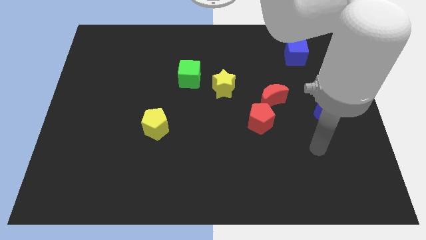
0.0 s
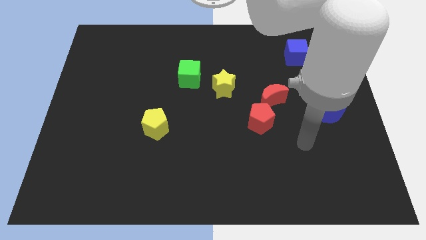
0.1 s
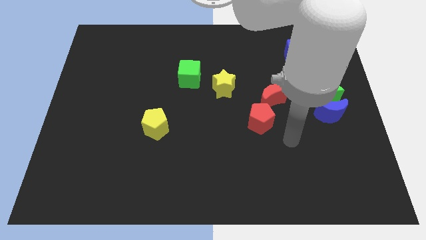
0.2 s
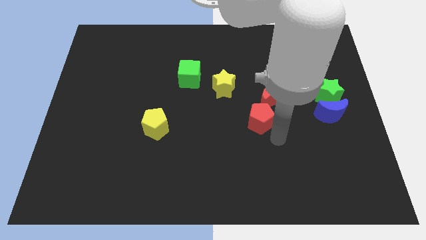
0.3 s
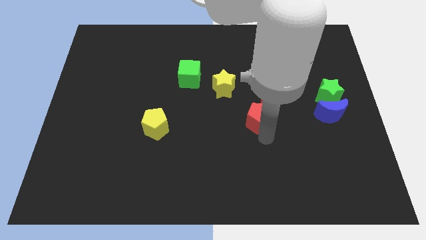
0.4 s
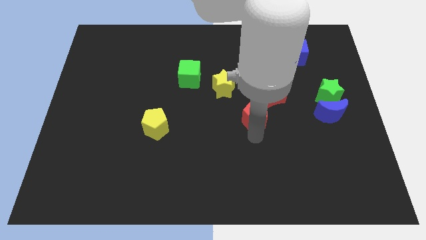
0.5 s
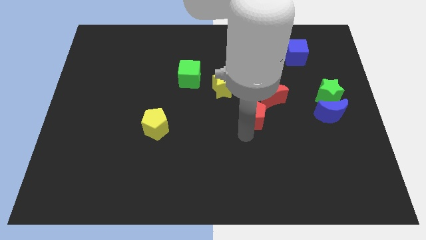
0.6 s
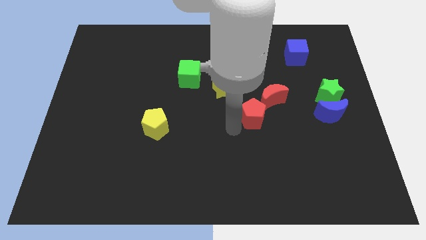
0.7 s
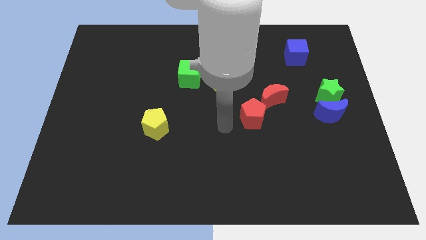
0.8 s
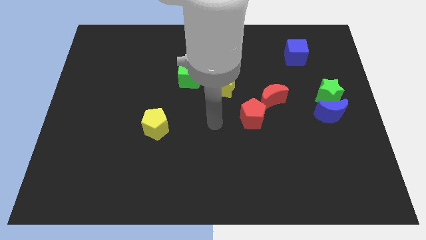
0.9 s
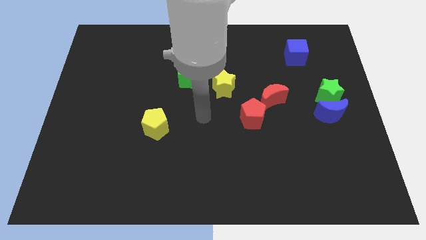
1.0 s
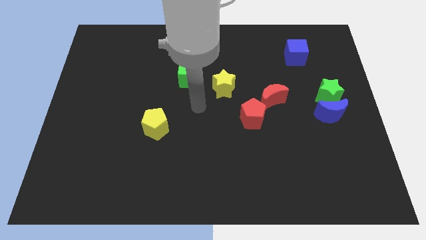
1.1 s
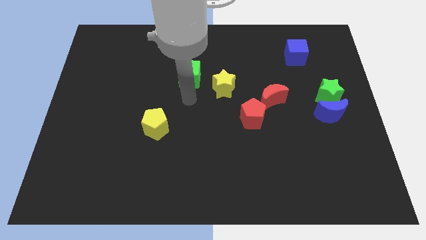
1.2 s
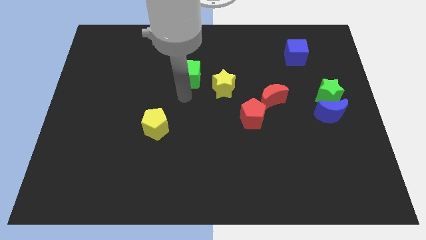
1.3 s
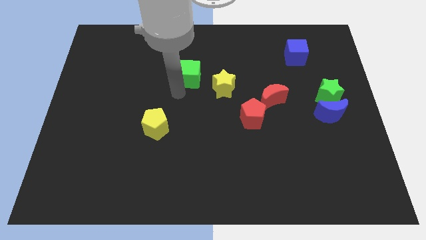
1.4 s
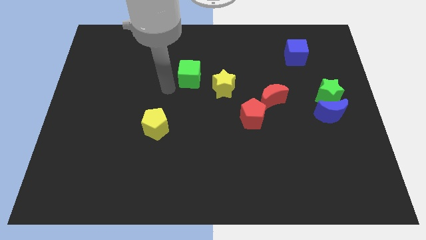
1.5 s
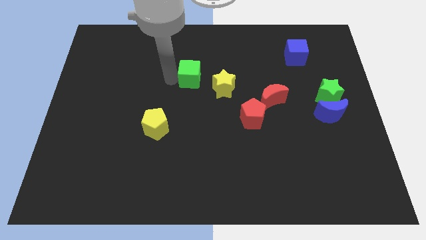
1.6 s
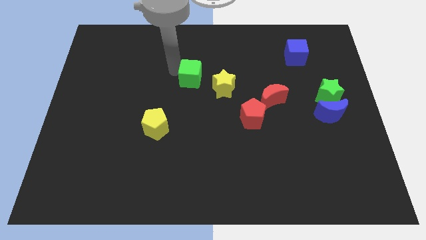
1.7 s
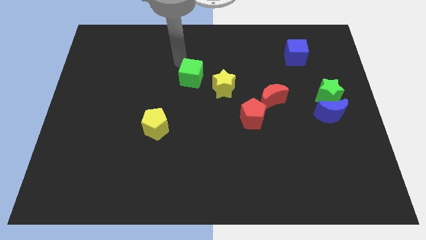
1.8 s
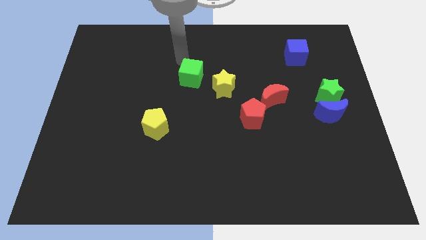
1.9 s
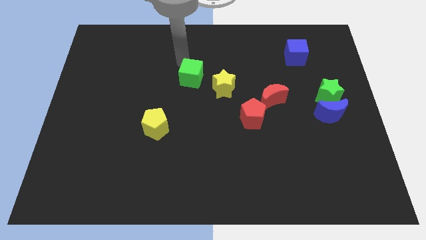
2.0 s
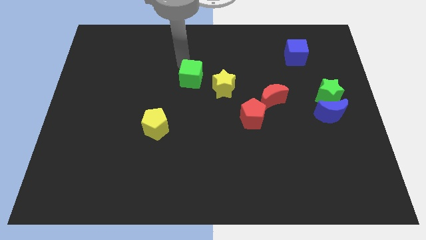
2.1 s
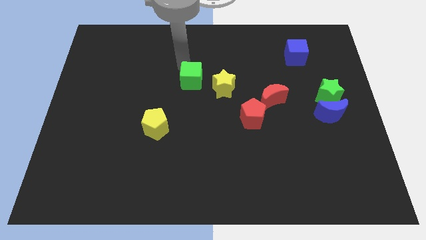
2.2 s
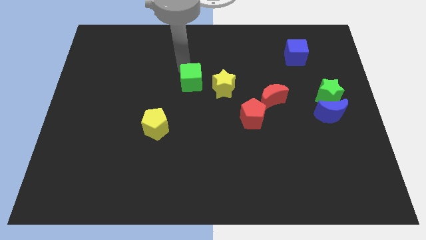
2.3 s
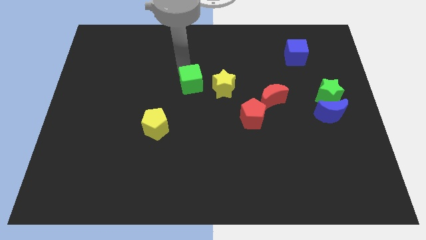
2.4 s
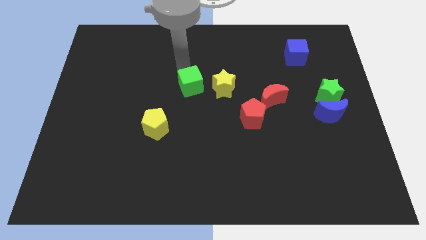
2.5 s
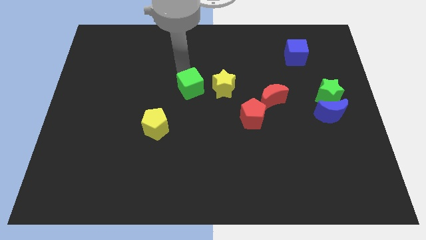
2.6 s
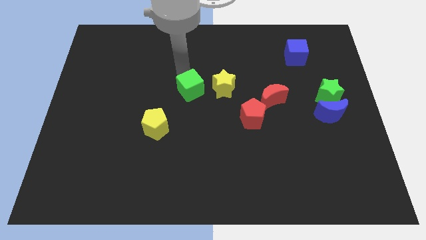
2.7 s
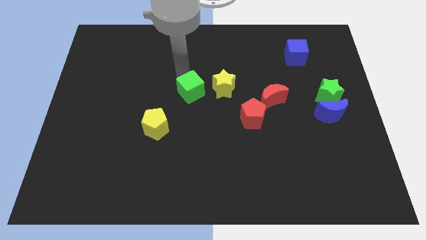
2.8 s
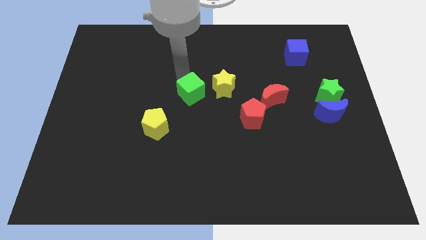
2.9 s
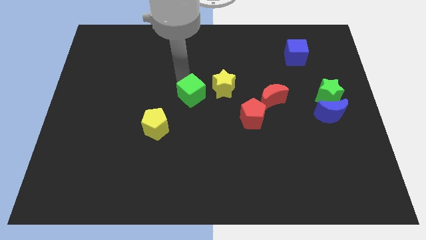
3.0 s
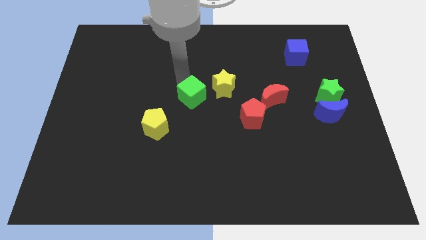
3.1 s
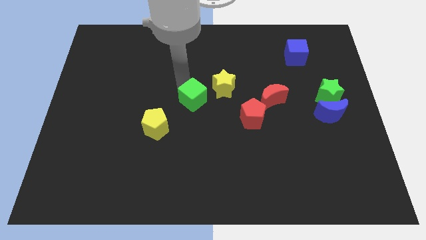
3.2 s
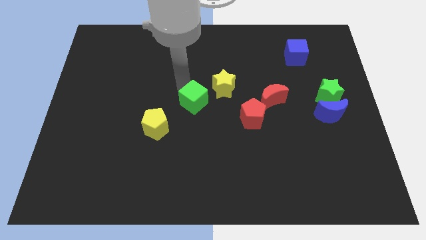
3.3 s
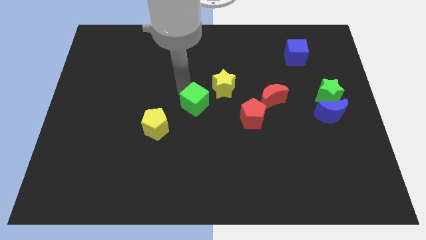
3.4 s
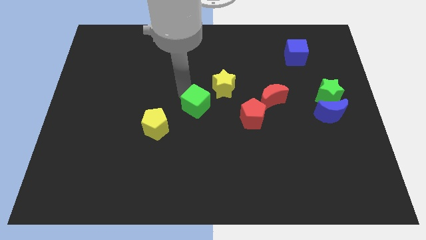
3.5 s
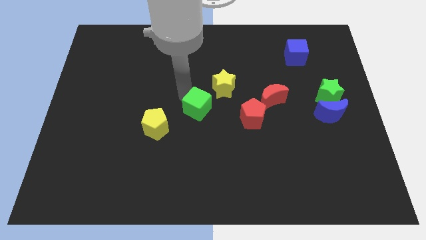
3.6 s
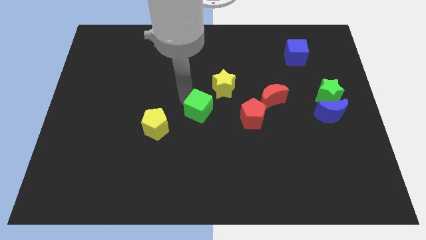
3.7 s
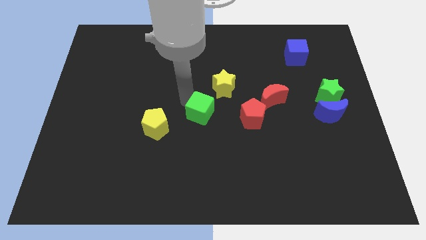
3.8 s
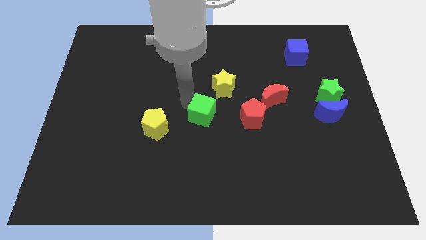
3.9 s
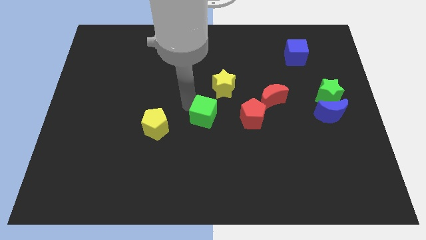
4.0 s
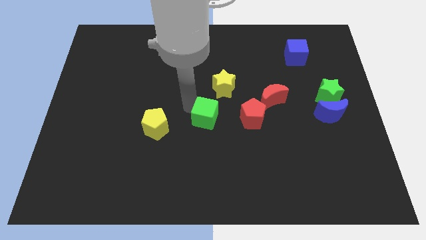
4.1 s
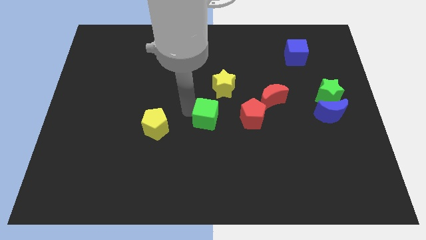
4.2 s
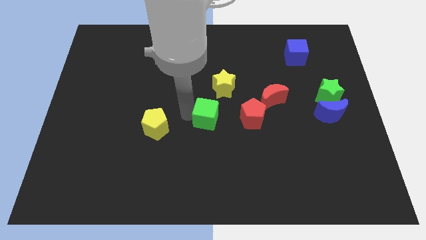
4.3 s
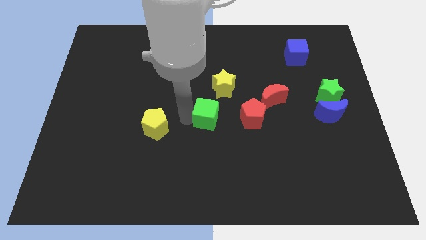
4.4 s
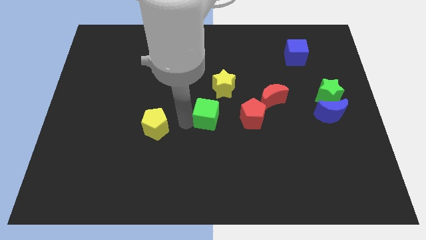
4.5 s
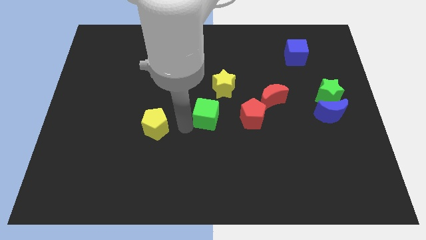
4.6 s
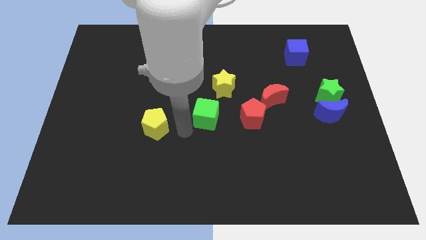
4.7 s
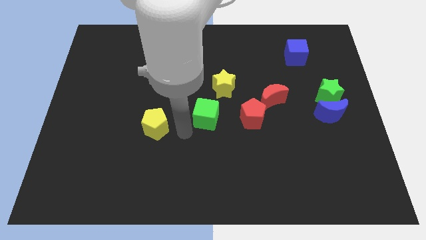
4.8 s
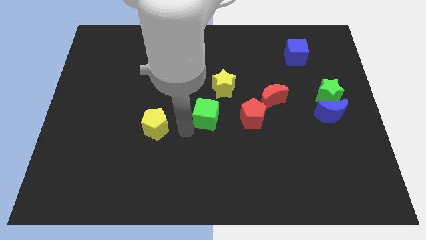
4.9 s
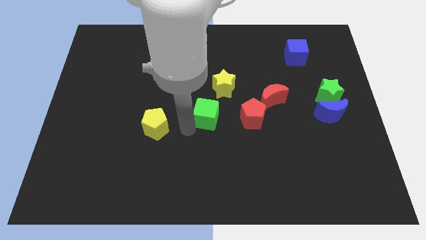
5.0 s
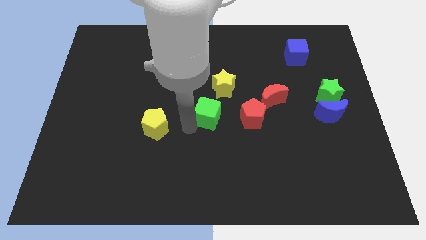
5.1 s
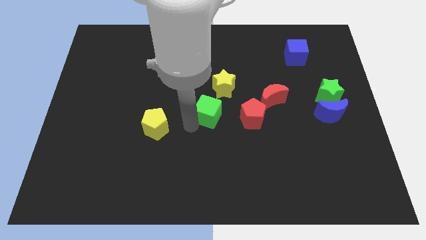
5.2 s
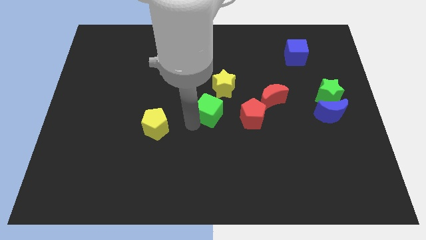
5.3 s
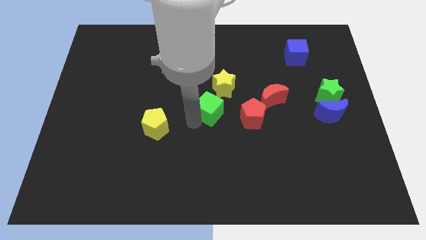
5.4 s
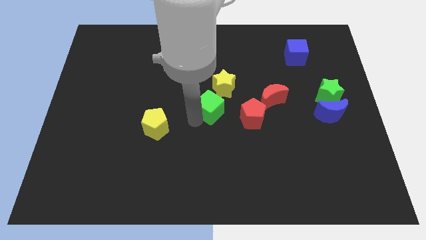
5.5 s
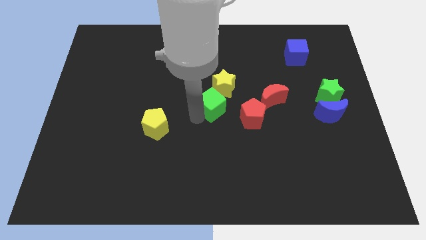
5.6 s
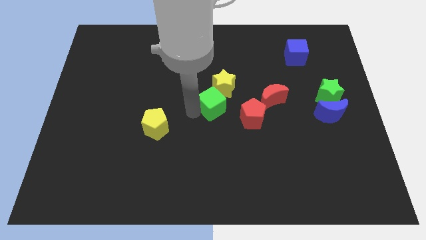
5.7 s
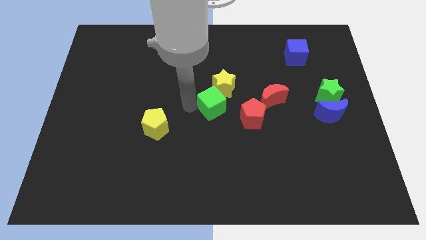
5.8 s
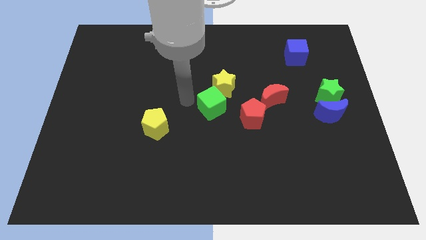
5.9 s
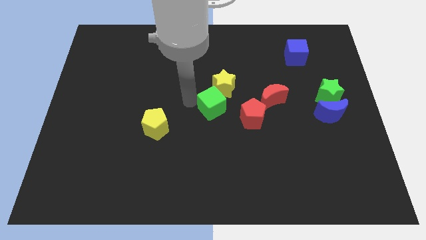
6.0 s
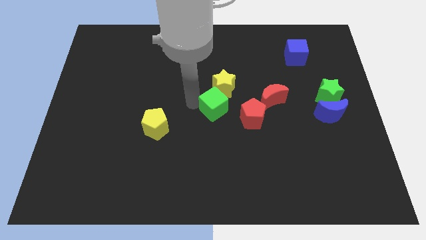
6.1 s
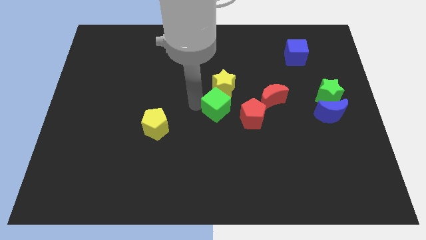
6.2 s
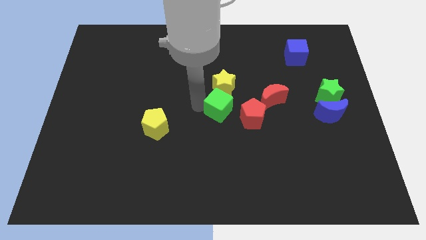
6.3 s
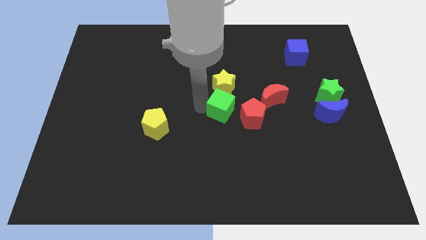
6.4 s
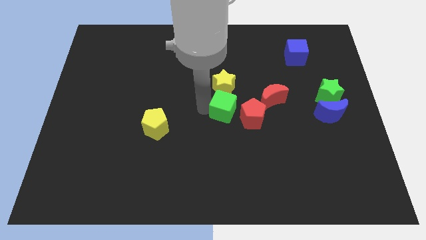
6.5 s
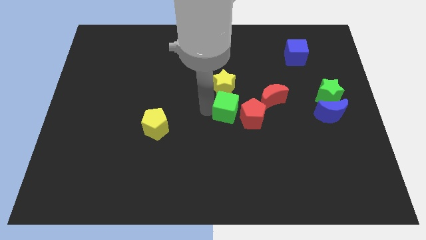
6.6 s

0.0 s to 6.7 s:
put the green cube next to the red pentagon

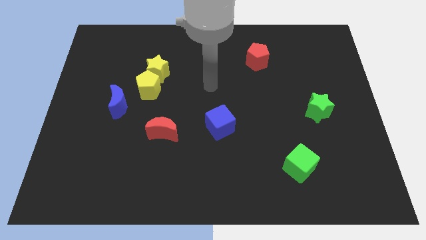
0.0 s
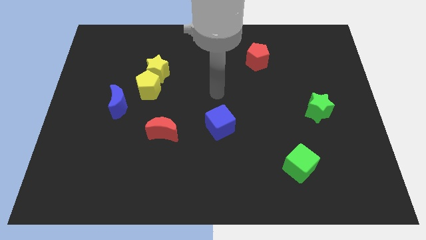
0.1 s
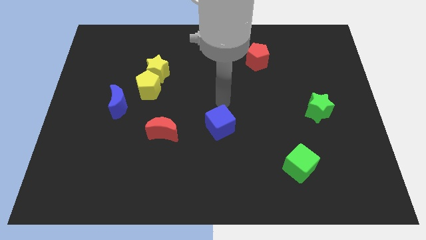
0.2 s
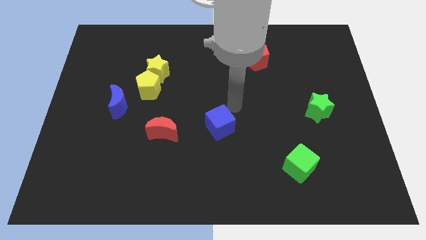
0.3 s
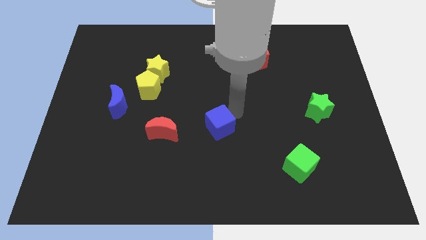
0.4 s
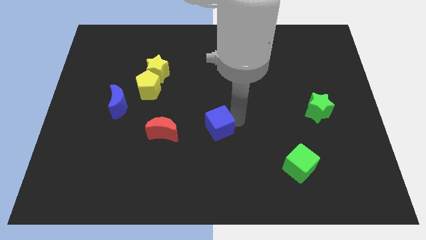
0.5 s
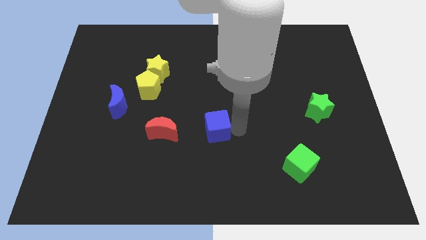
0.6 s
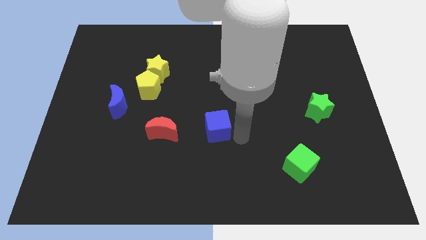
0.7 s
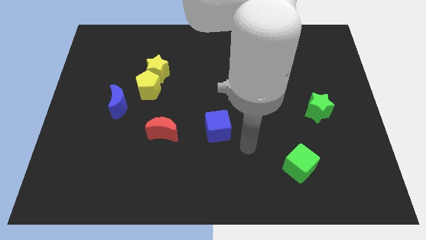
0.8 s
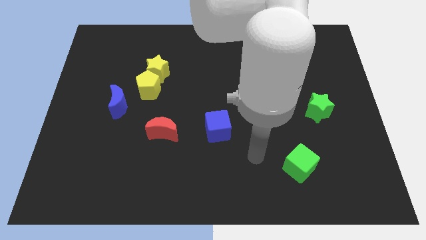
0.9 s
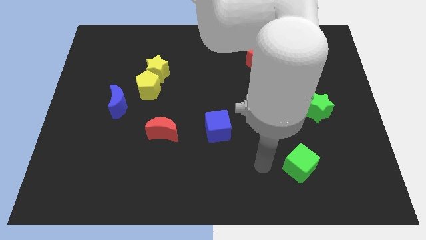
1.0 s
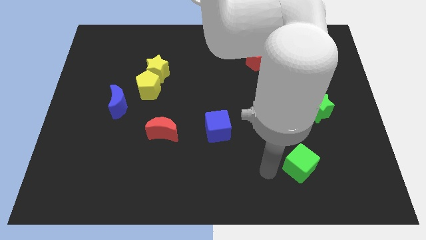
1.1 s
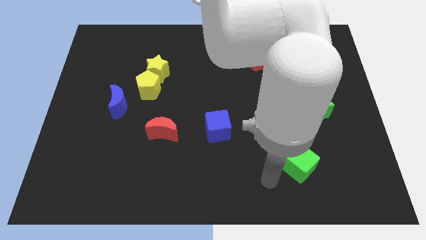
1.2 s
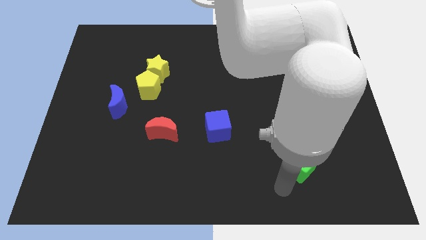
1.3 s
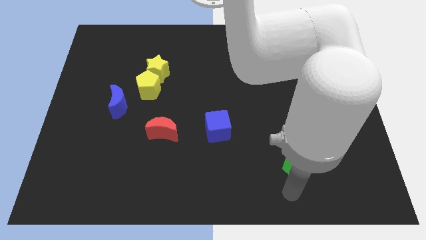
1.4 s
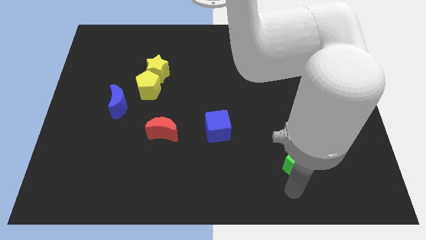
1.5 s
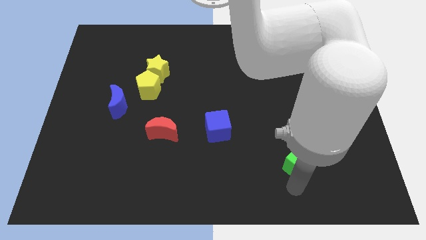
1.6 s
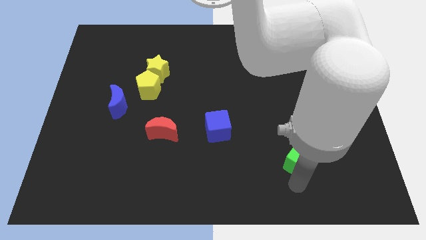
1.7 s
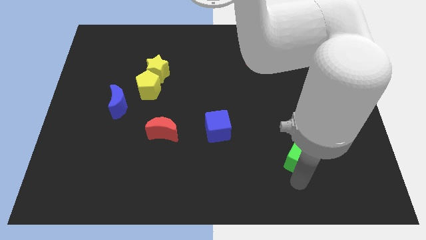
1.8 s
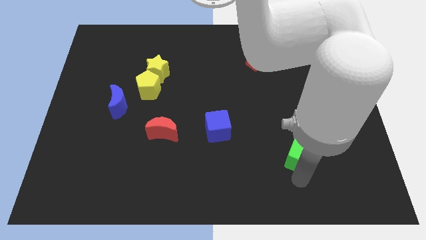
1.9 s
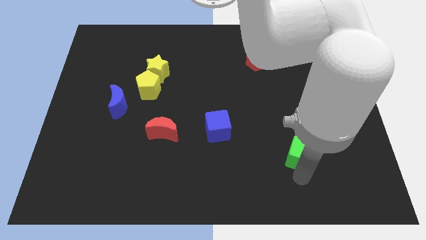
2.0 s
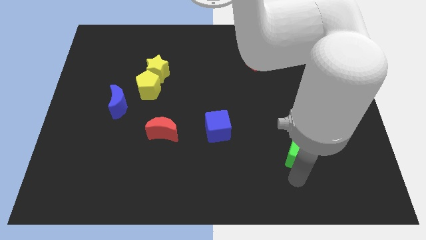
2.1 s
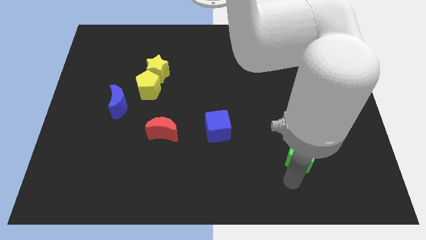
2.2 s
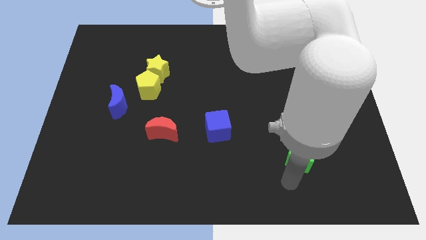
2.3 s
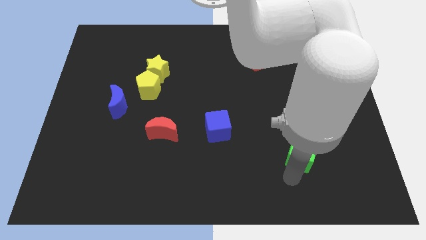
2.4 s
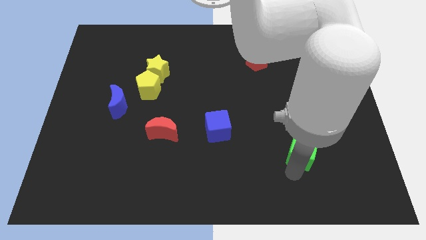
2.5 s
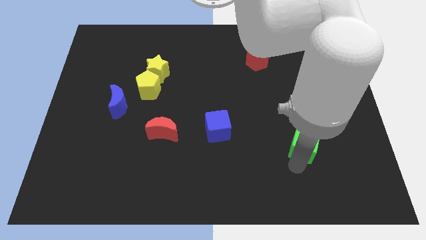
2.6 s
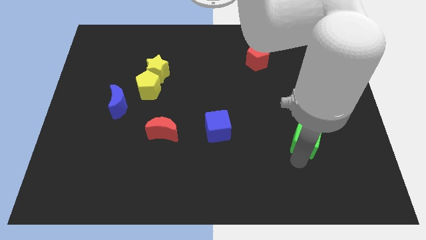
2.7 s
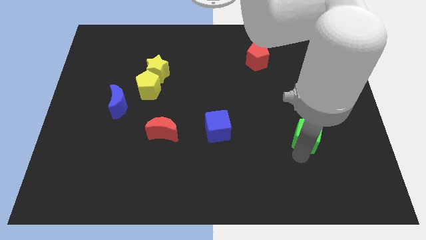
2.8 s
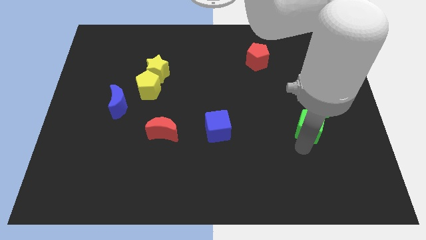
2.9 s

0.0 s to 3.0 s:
move the green cube close to the green star
